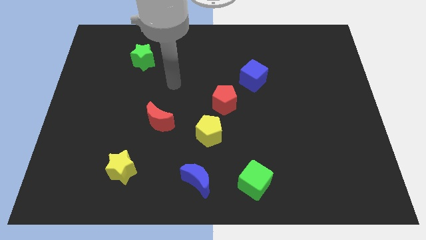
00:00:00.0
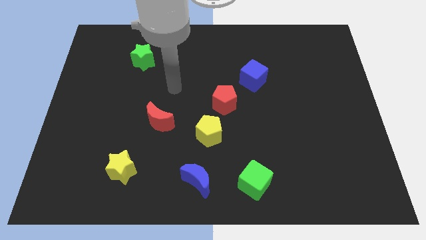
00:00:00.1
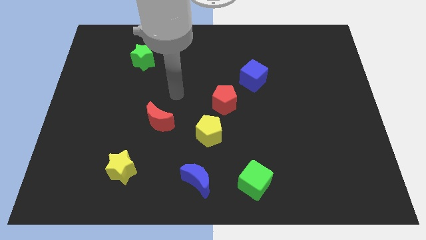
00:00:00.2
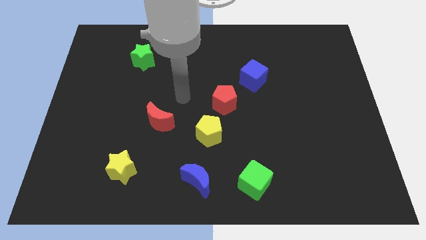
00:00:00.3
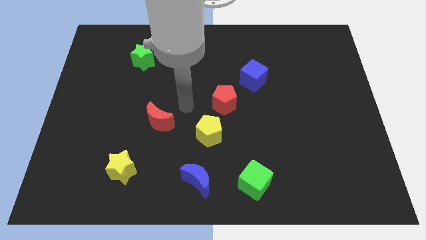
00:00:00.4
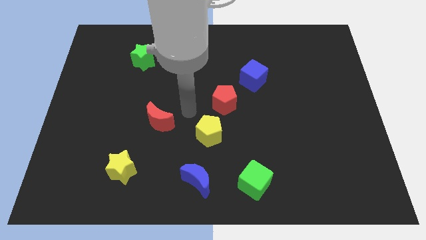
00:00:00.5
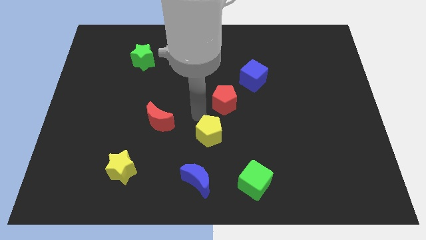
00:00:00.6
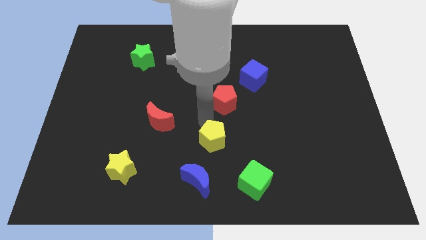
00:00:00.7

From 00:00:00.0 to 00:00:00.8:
pull the red pentagon apart from the yellow pentagon

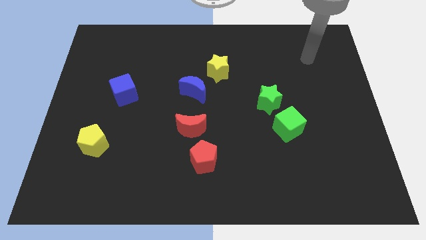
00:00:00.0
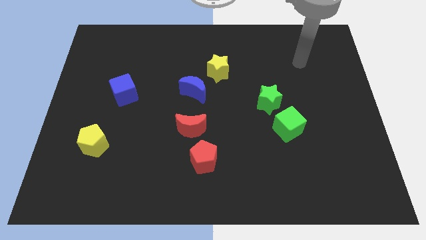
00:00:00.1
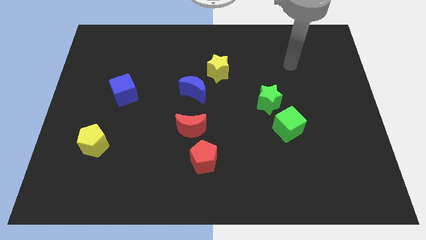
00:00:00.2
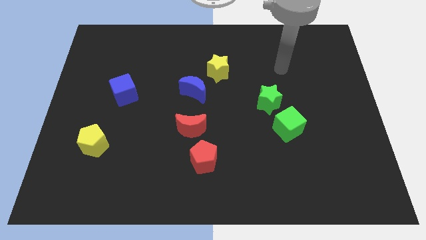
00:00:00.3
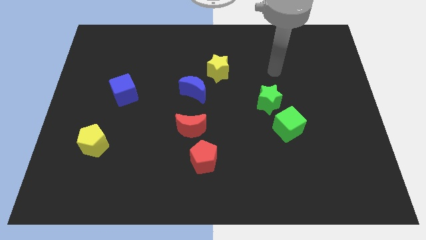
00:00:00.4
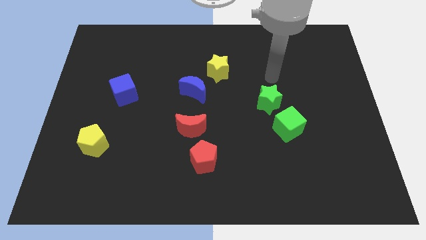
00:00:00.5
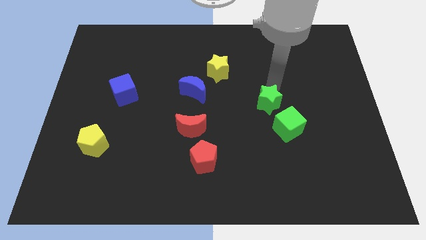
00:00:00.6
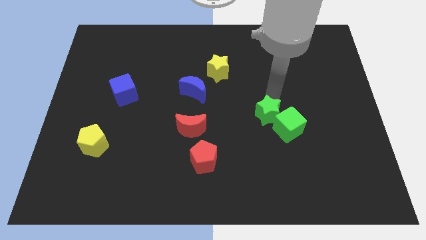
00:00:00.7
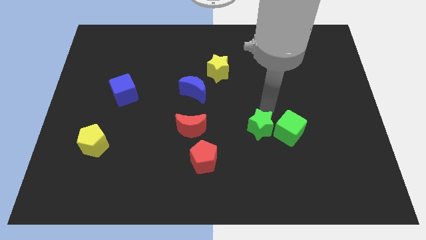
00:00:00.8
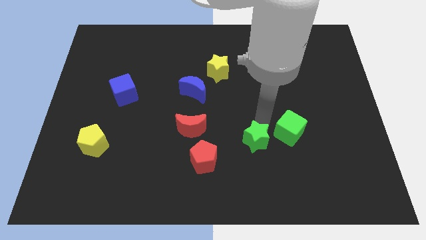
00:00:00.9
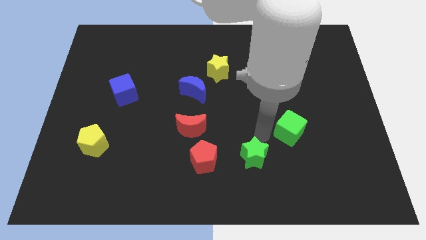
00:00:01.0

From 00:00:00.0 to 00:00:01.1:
move the green cube away from the green star

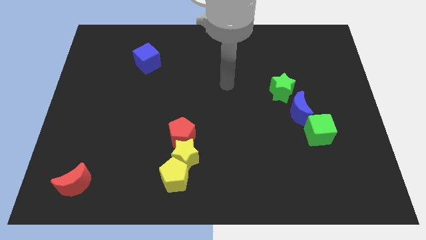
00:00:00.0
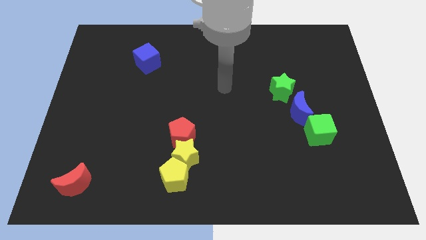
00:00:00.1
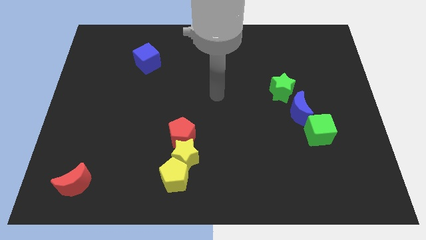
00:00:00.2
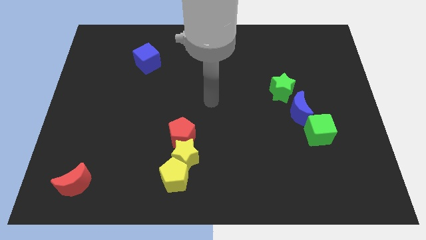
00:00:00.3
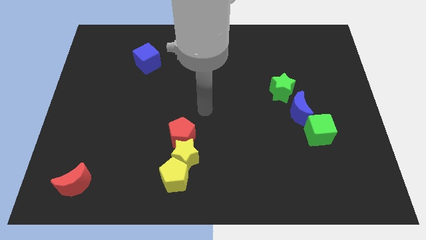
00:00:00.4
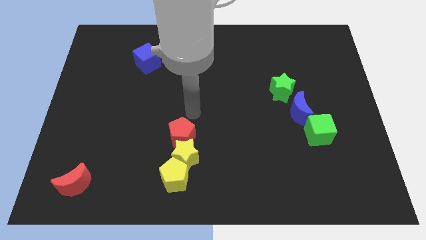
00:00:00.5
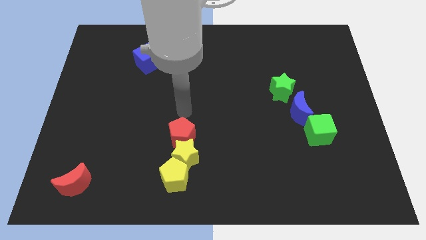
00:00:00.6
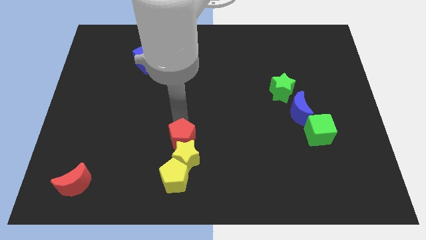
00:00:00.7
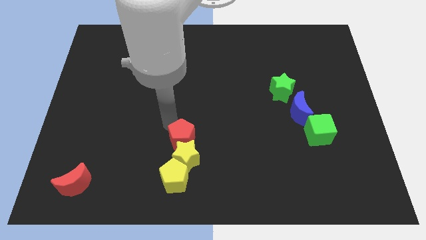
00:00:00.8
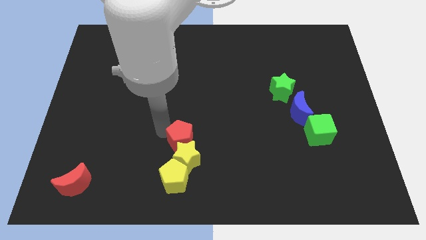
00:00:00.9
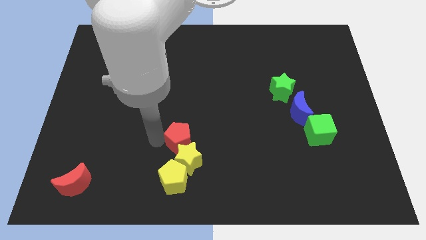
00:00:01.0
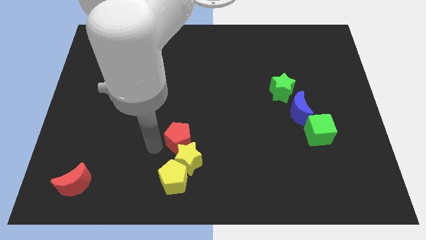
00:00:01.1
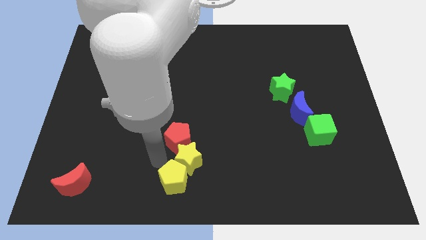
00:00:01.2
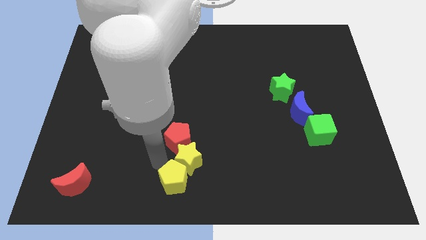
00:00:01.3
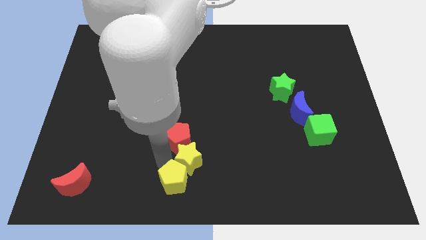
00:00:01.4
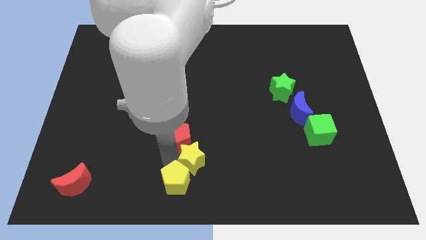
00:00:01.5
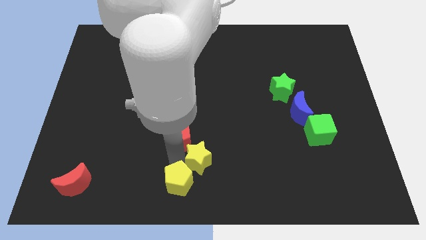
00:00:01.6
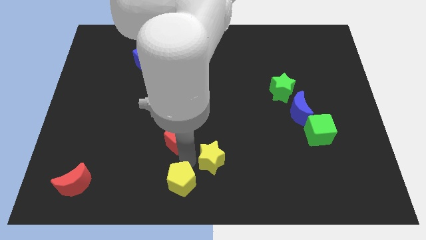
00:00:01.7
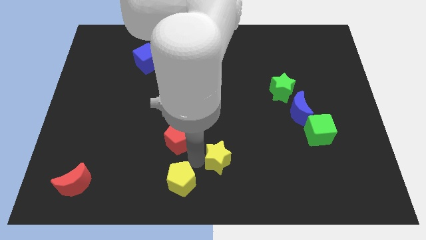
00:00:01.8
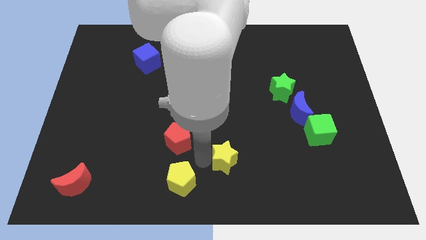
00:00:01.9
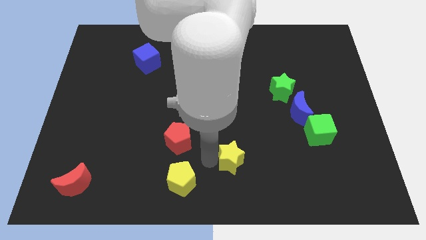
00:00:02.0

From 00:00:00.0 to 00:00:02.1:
pull the yellow star apart from the red pentagon and yellow pentagon

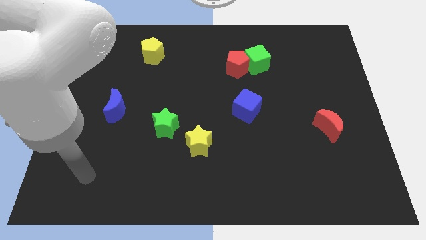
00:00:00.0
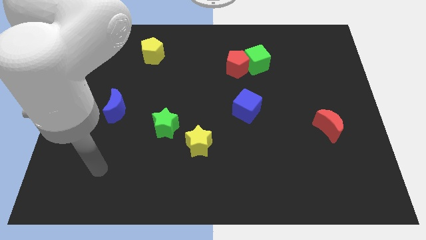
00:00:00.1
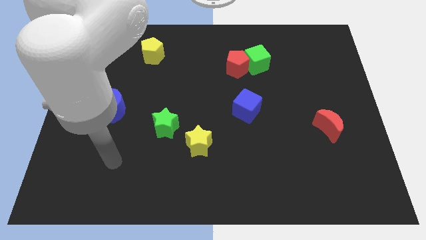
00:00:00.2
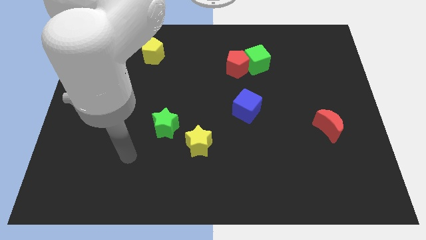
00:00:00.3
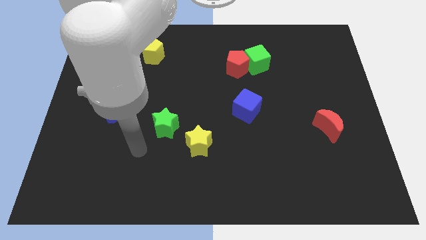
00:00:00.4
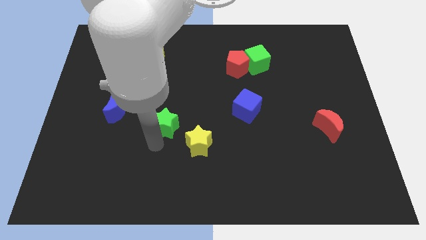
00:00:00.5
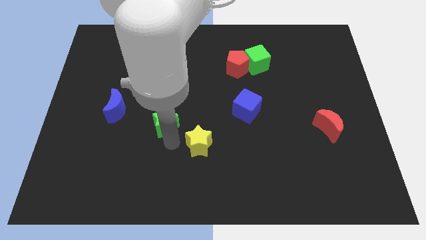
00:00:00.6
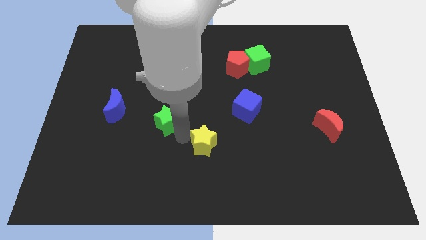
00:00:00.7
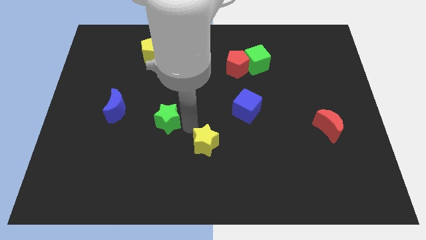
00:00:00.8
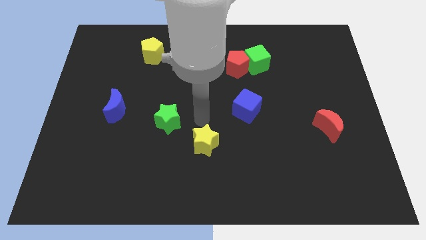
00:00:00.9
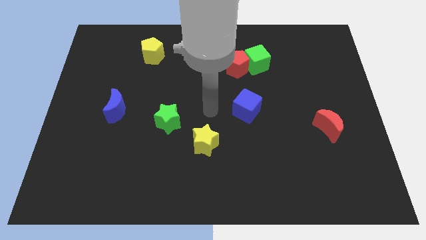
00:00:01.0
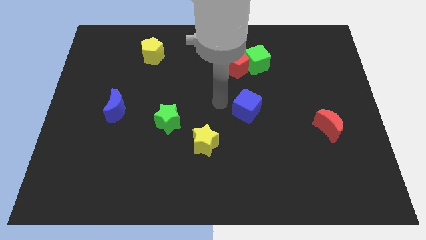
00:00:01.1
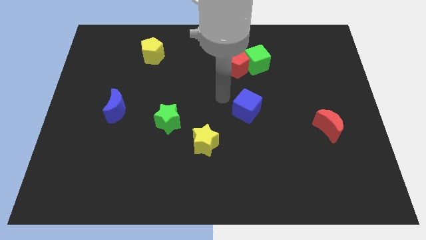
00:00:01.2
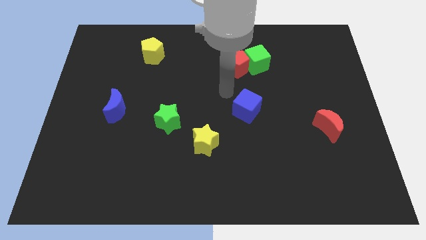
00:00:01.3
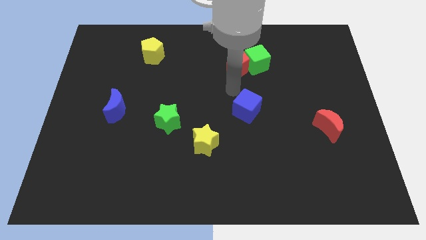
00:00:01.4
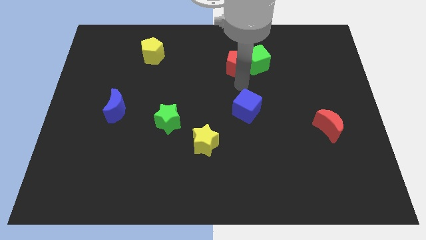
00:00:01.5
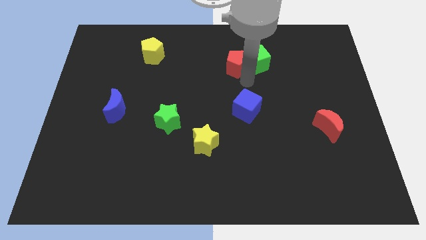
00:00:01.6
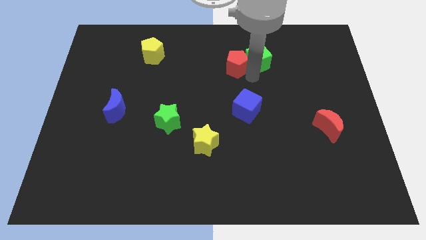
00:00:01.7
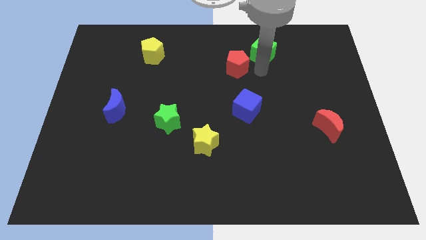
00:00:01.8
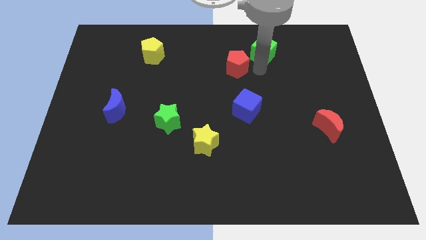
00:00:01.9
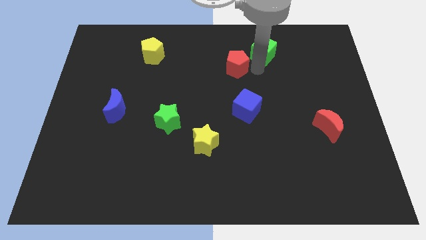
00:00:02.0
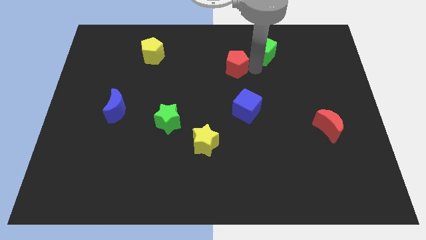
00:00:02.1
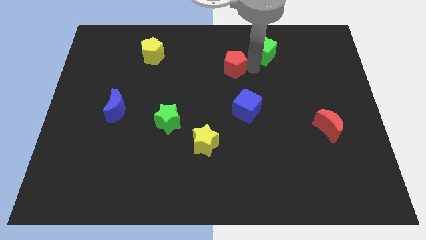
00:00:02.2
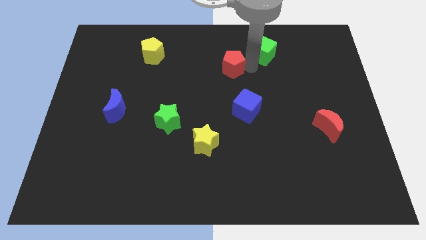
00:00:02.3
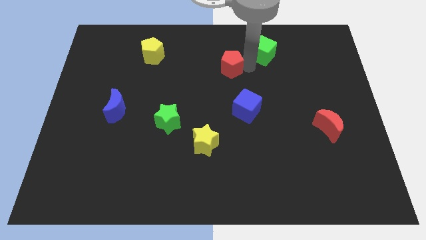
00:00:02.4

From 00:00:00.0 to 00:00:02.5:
move the red pentagon away from the green cube

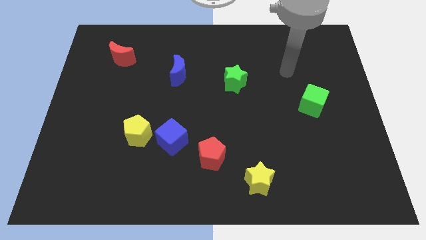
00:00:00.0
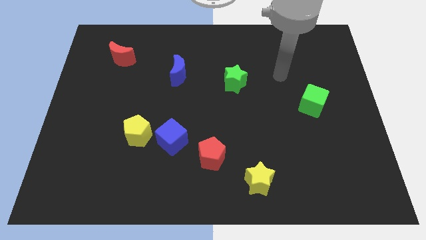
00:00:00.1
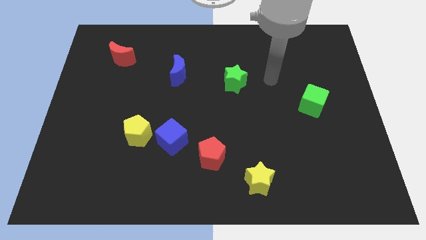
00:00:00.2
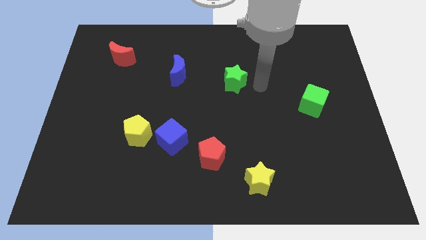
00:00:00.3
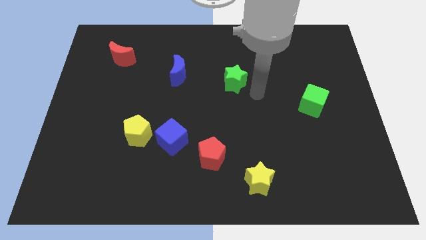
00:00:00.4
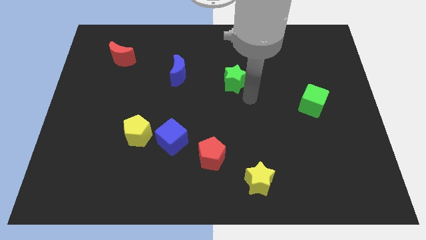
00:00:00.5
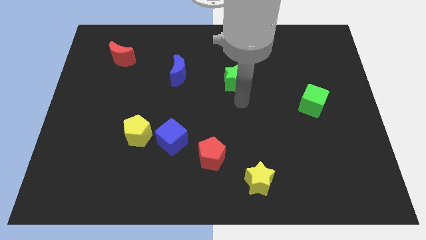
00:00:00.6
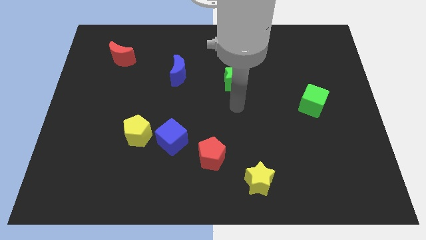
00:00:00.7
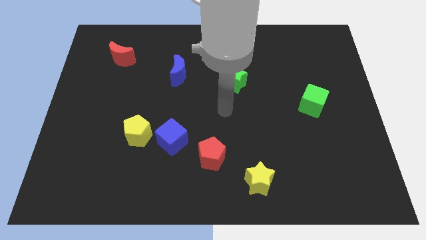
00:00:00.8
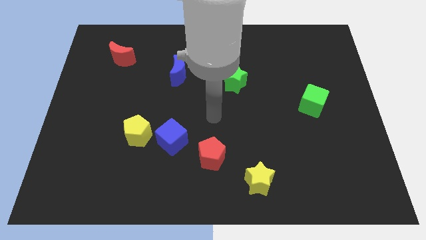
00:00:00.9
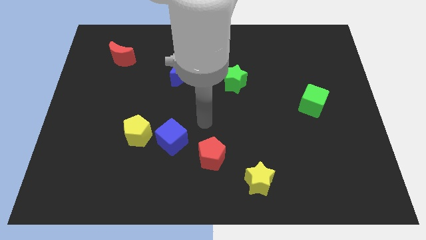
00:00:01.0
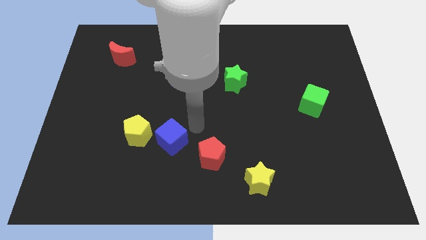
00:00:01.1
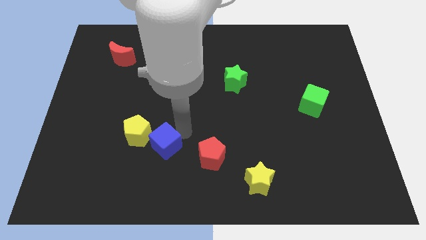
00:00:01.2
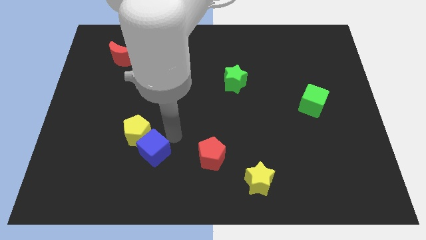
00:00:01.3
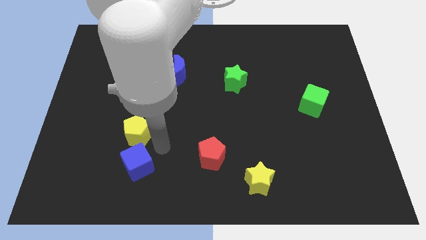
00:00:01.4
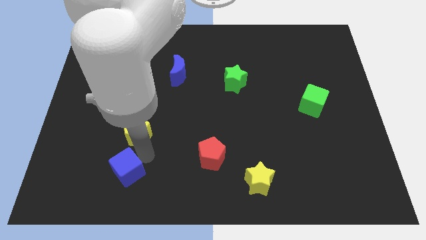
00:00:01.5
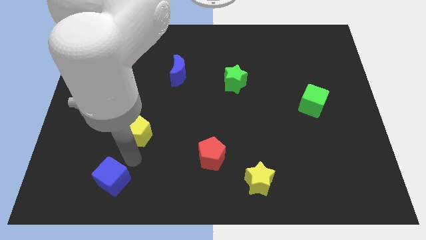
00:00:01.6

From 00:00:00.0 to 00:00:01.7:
pull the yellow pentagon apart from the blue cube

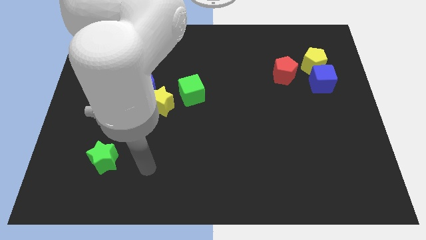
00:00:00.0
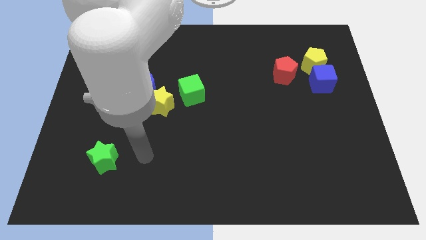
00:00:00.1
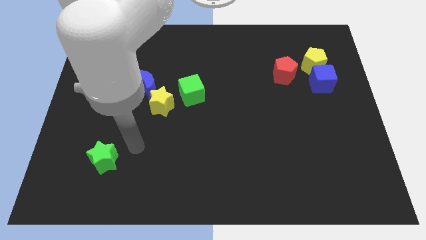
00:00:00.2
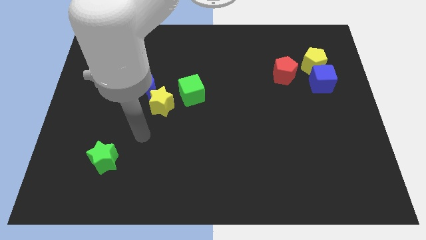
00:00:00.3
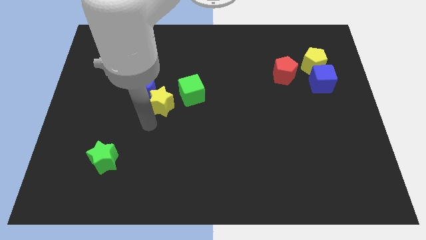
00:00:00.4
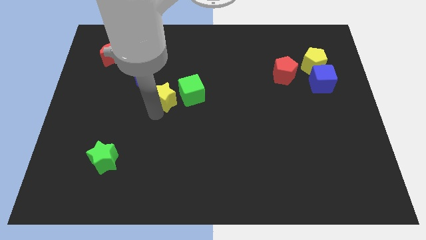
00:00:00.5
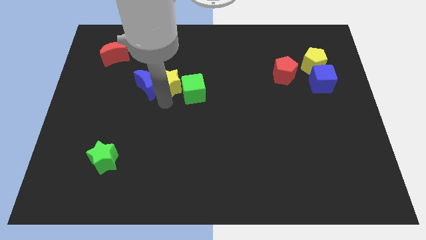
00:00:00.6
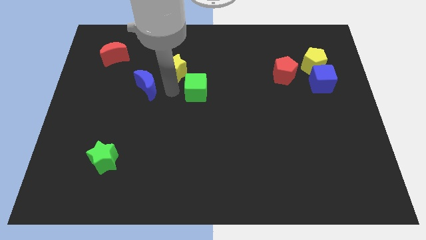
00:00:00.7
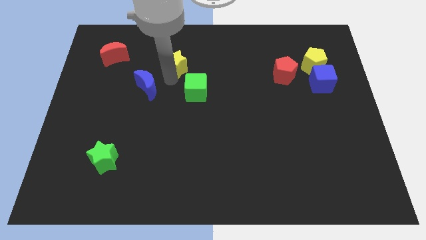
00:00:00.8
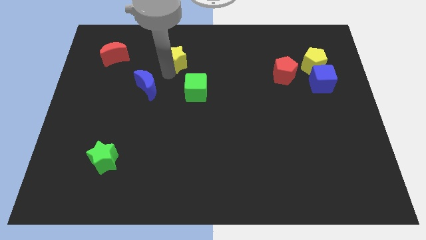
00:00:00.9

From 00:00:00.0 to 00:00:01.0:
move the blue moon away from the yellow star
